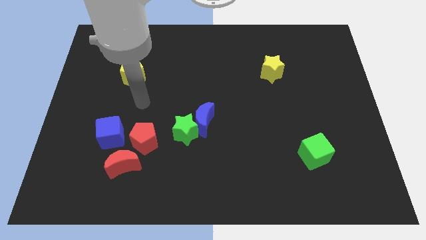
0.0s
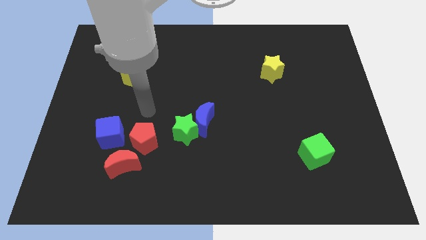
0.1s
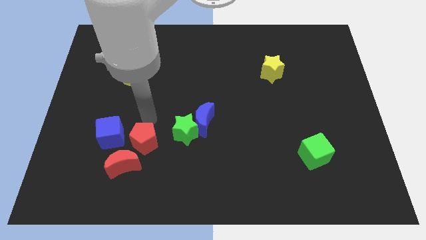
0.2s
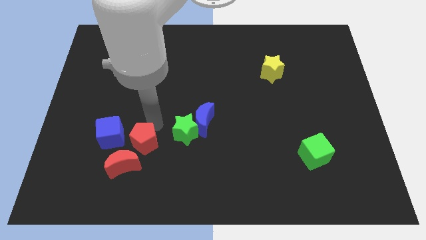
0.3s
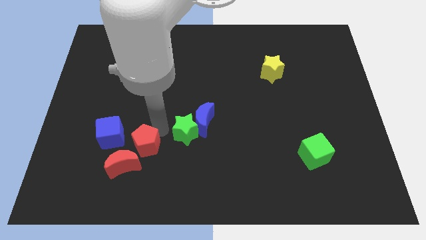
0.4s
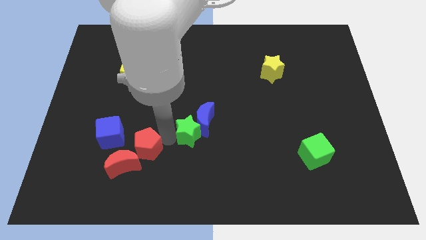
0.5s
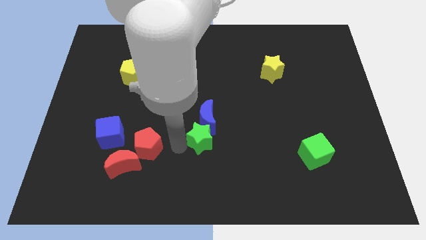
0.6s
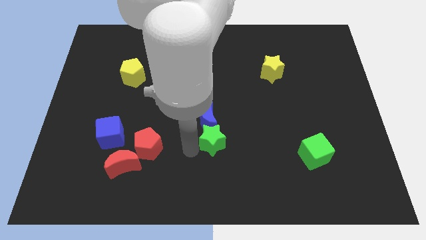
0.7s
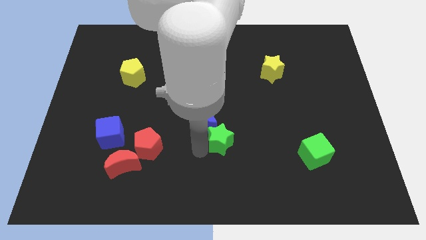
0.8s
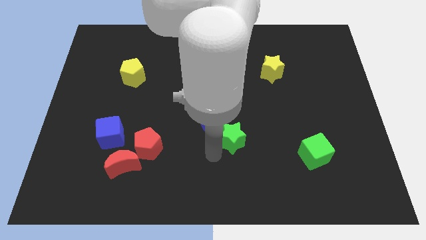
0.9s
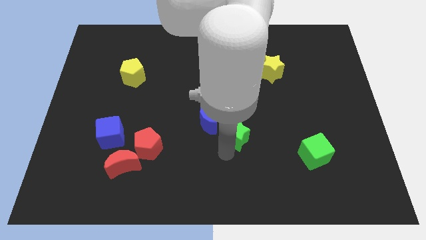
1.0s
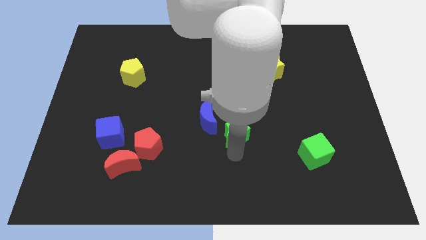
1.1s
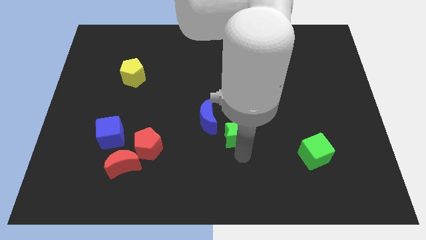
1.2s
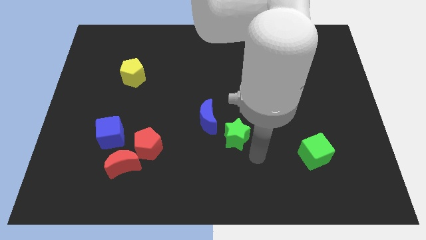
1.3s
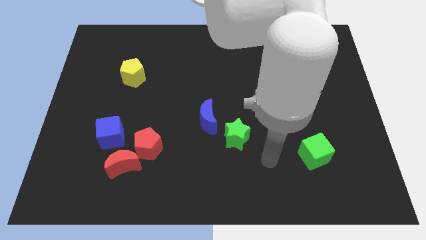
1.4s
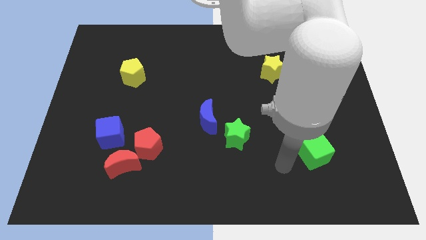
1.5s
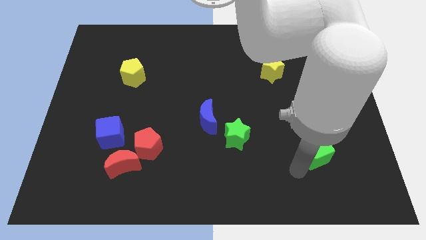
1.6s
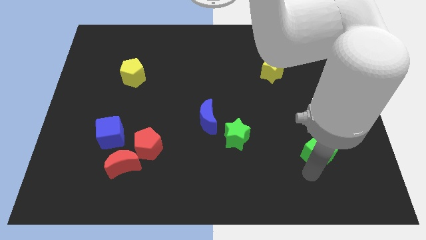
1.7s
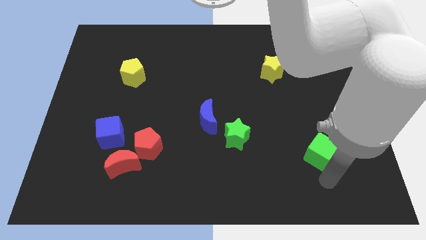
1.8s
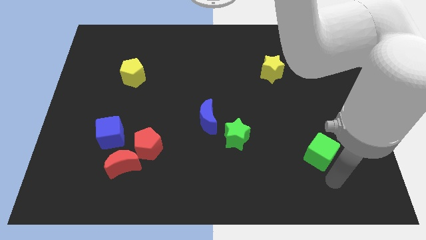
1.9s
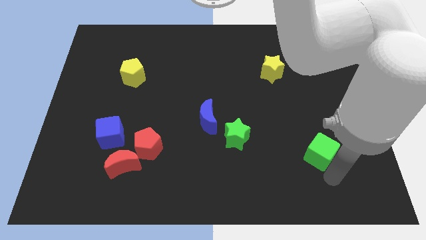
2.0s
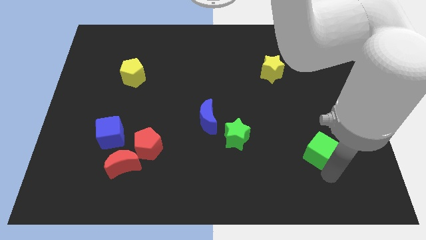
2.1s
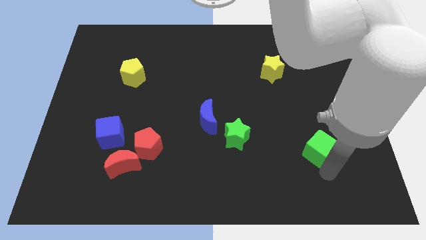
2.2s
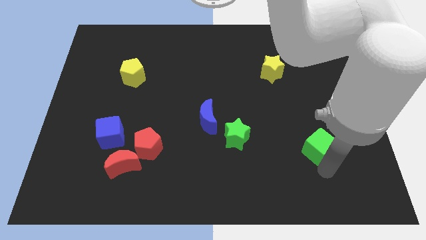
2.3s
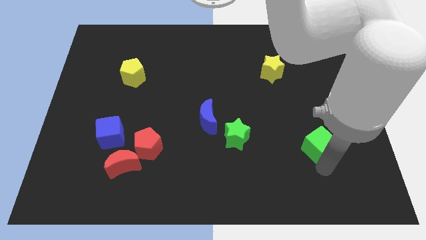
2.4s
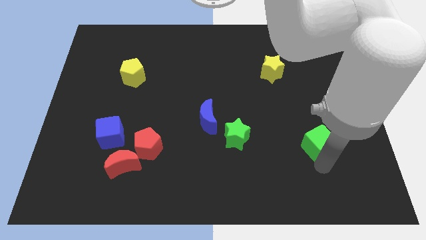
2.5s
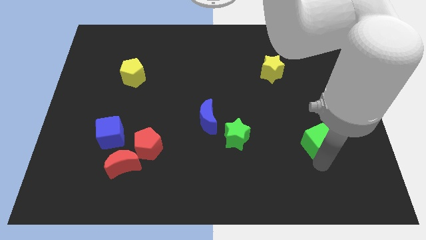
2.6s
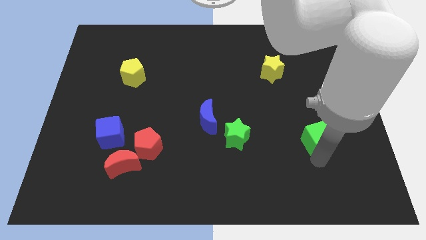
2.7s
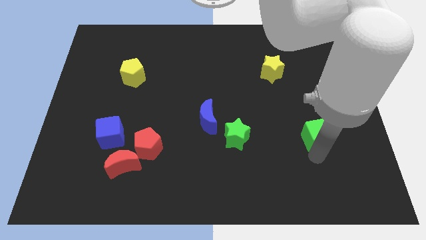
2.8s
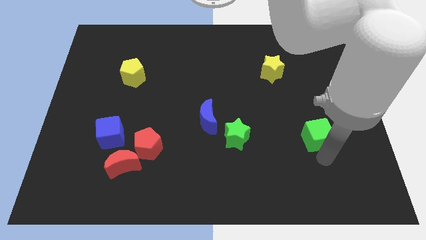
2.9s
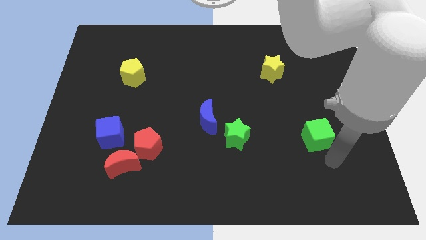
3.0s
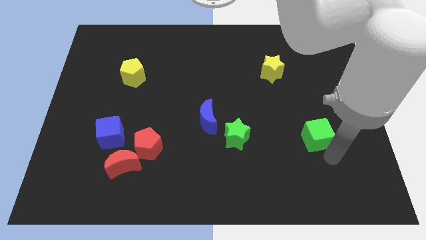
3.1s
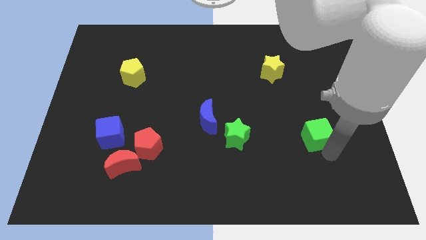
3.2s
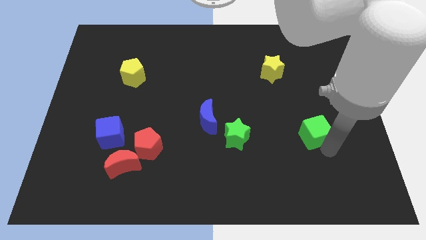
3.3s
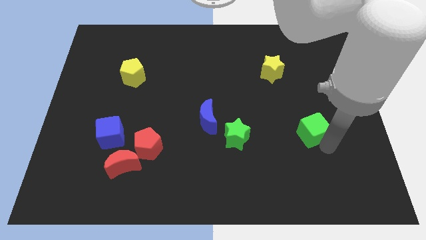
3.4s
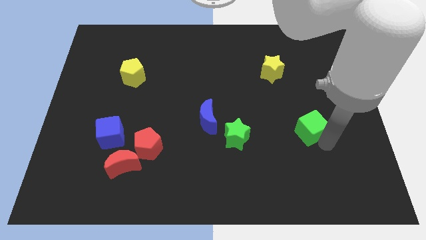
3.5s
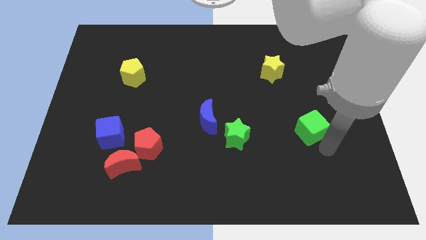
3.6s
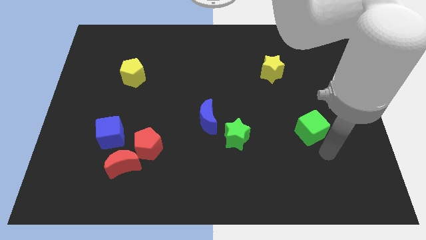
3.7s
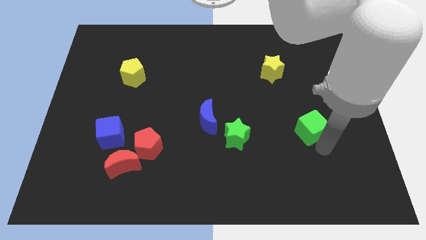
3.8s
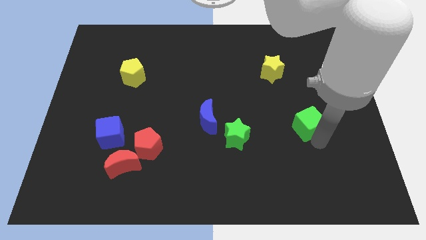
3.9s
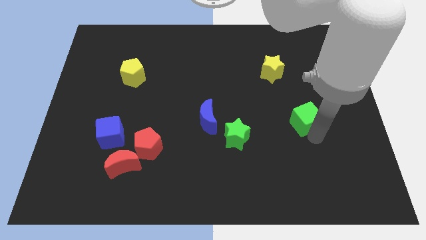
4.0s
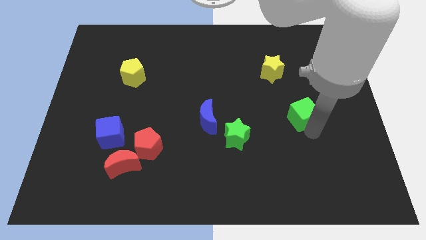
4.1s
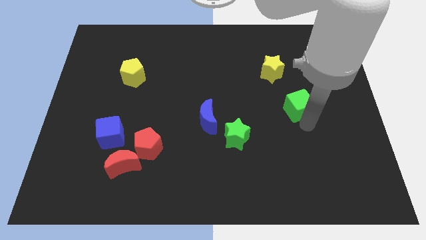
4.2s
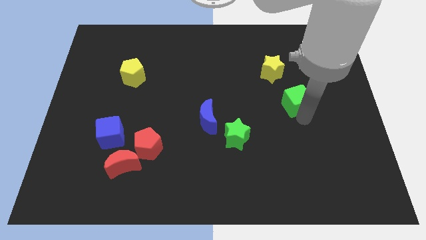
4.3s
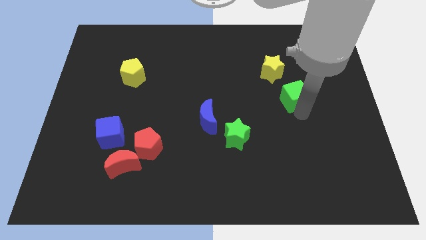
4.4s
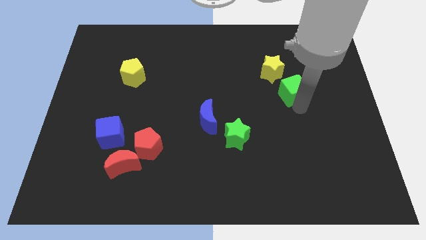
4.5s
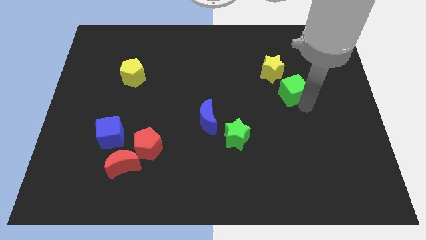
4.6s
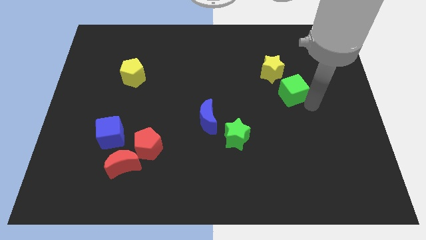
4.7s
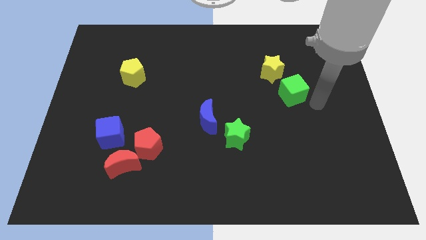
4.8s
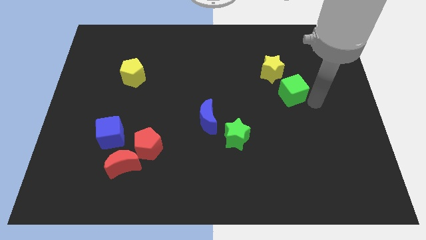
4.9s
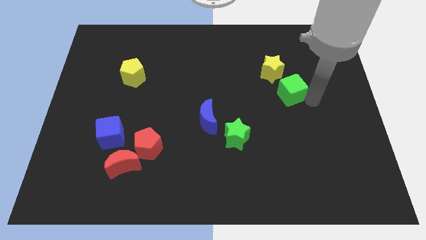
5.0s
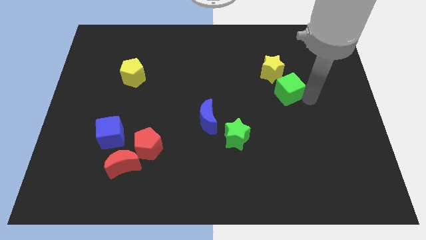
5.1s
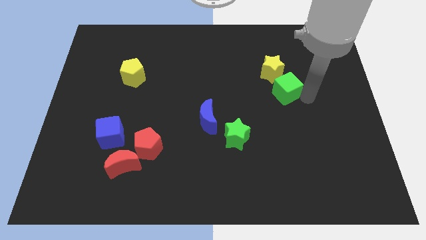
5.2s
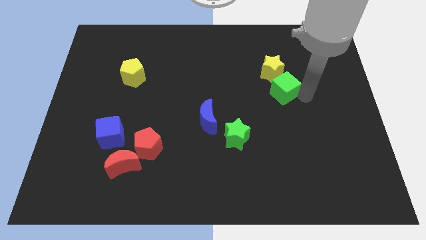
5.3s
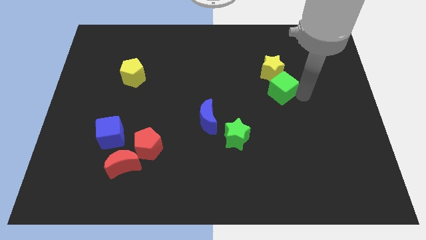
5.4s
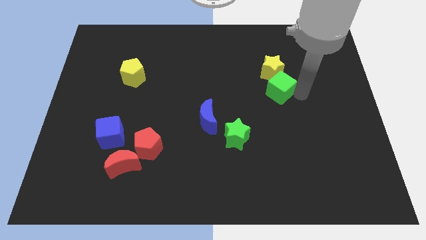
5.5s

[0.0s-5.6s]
move the green cube next to the yellow star

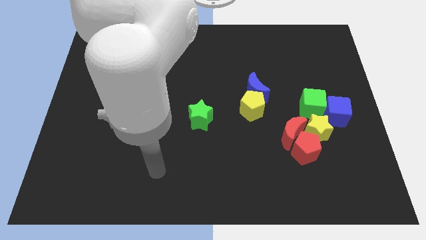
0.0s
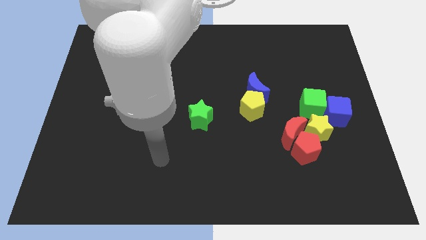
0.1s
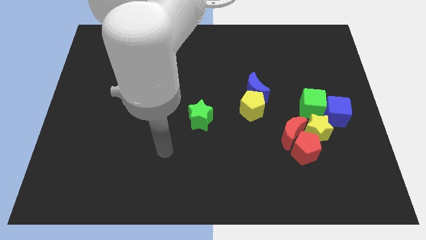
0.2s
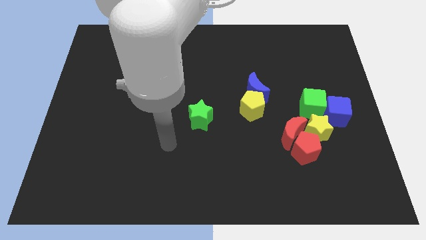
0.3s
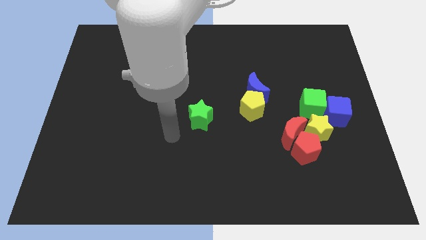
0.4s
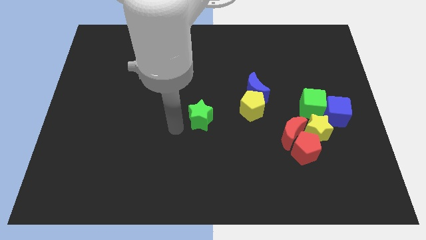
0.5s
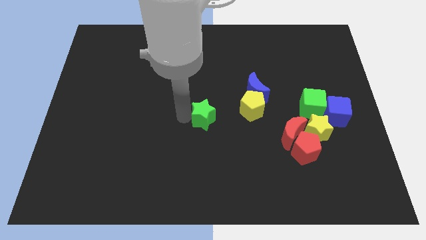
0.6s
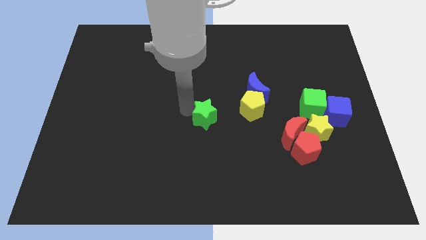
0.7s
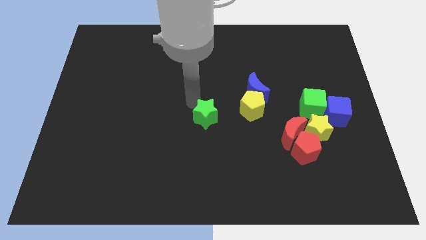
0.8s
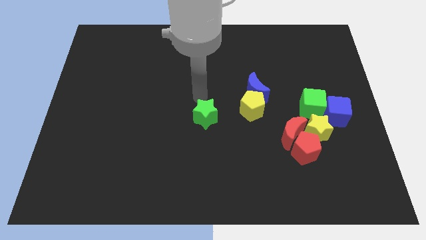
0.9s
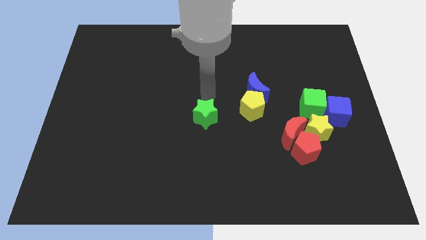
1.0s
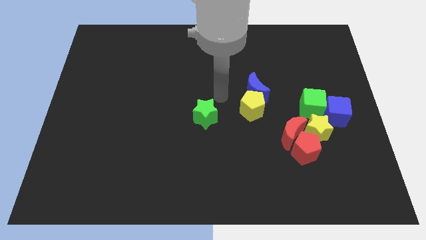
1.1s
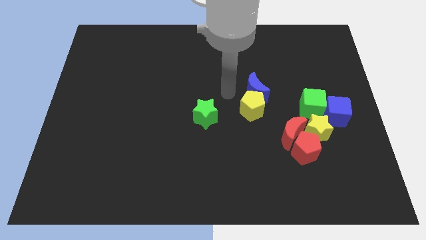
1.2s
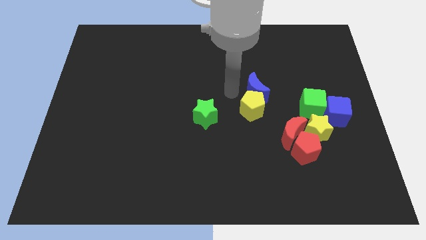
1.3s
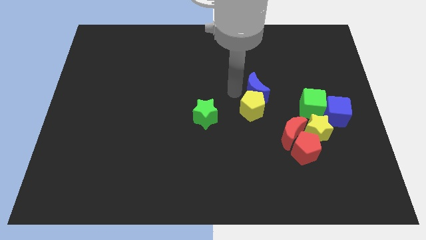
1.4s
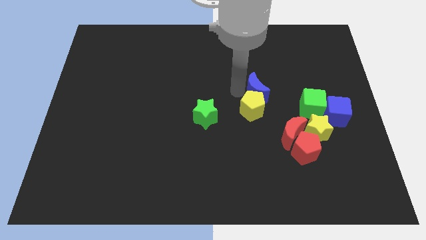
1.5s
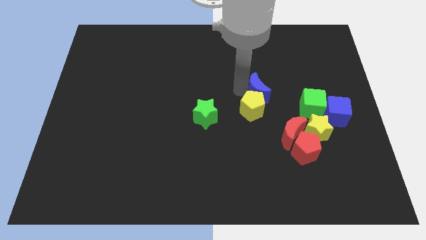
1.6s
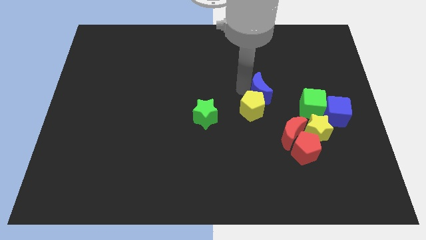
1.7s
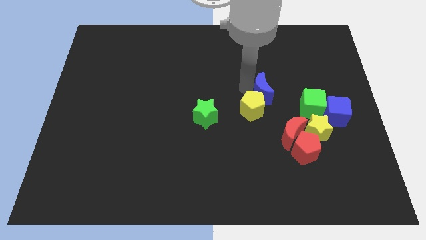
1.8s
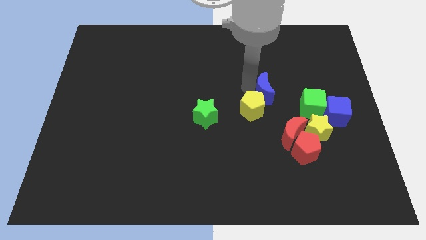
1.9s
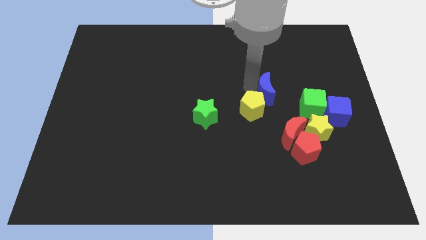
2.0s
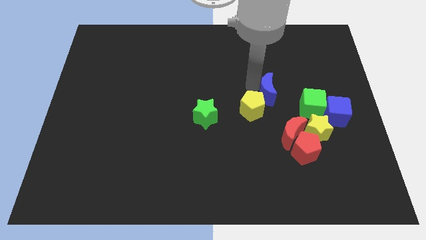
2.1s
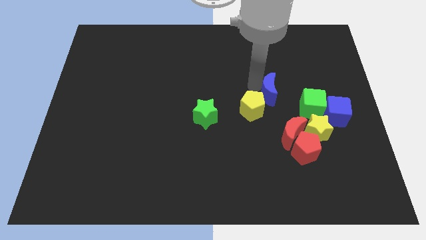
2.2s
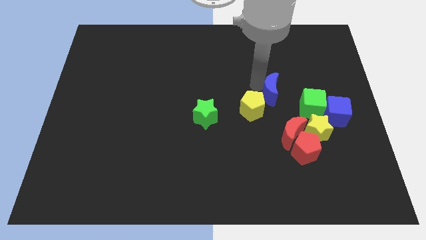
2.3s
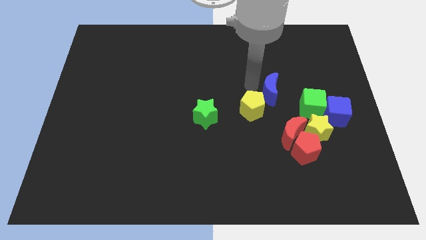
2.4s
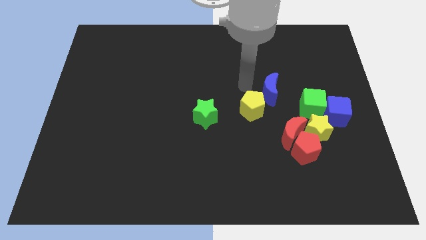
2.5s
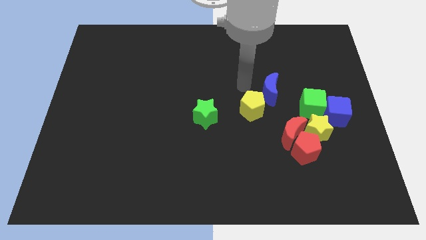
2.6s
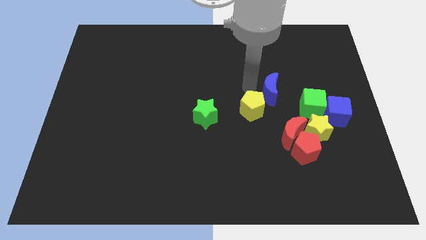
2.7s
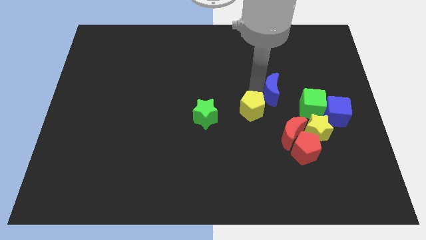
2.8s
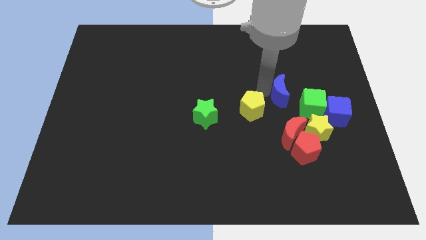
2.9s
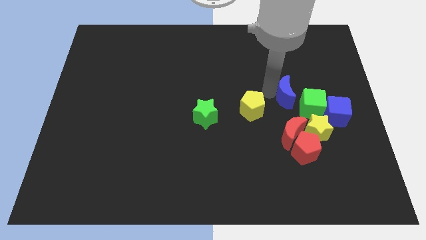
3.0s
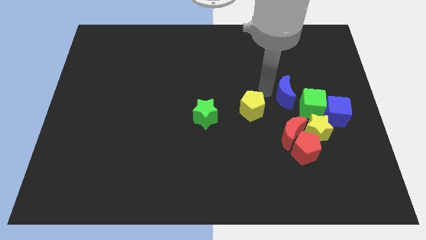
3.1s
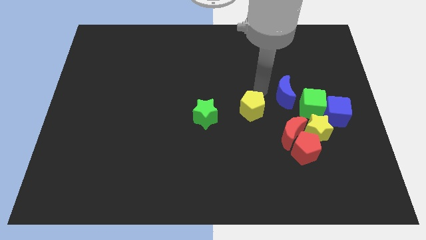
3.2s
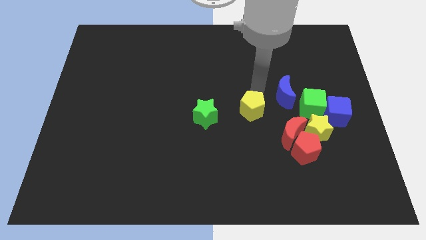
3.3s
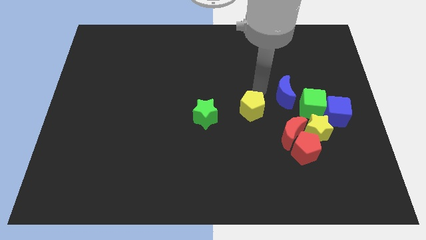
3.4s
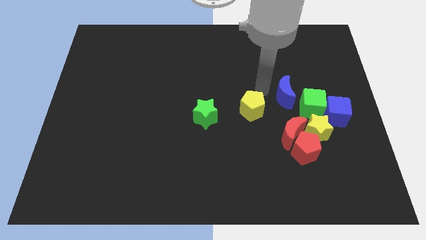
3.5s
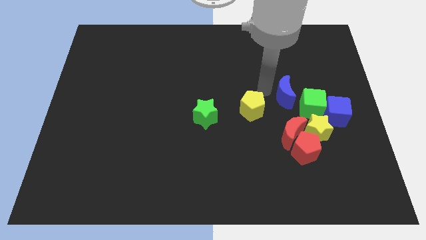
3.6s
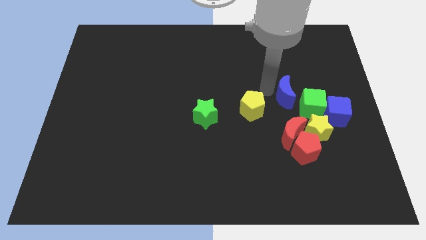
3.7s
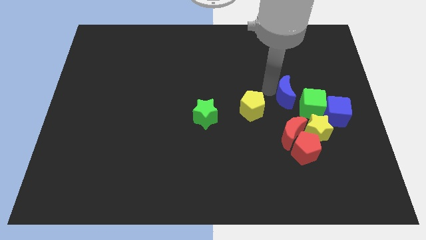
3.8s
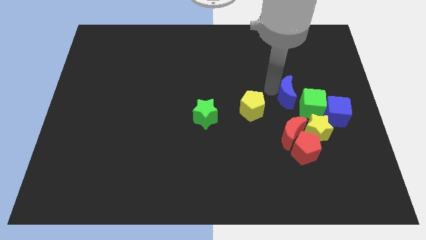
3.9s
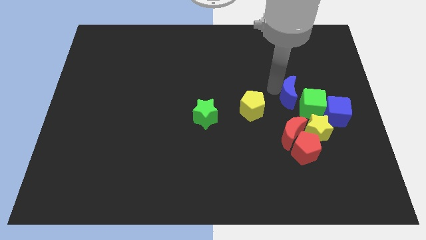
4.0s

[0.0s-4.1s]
move the blue moon to the green cube
